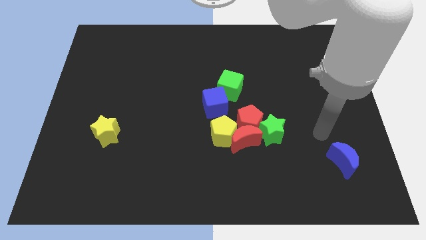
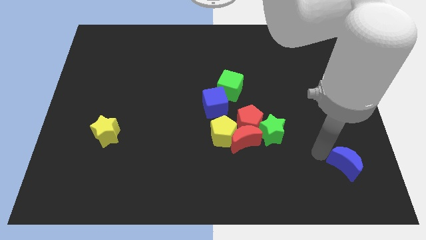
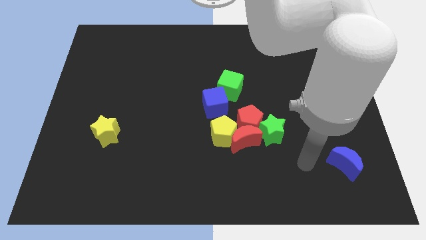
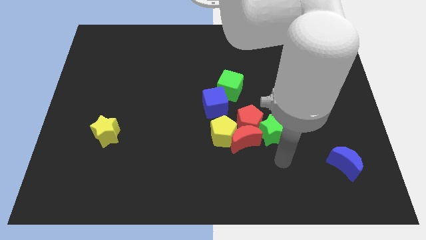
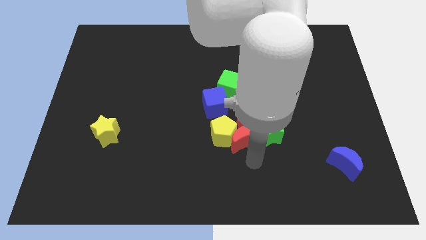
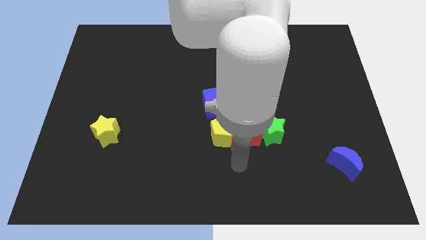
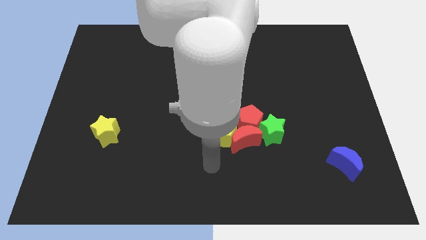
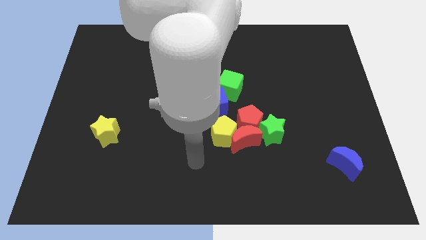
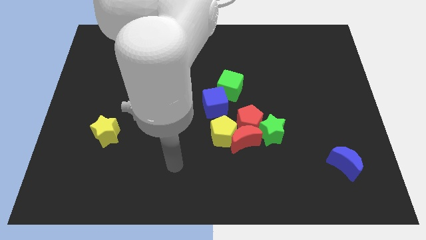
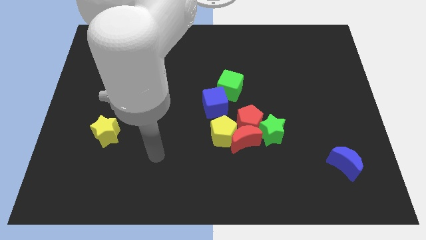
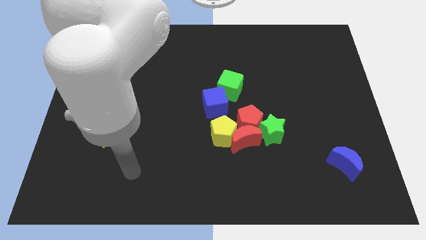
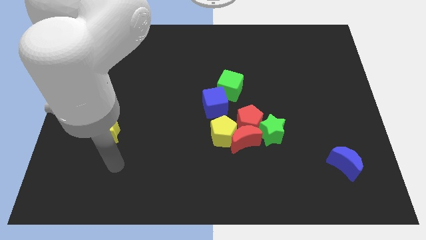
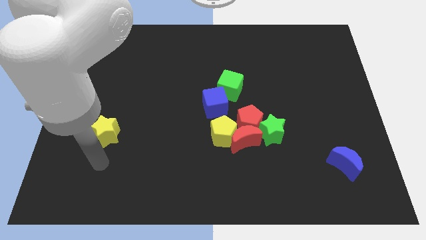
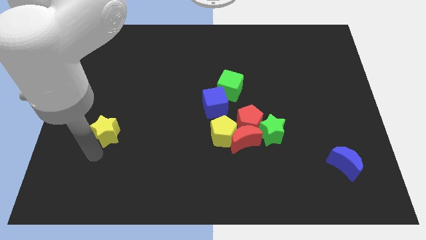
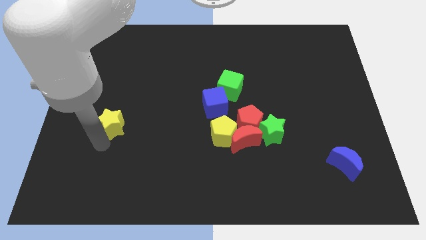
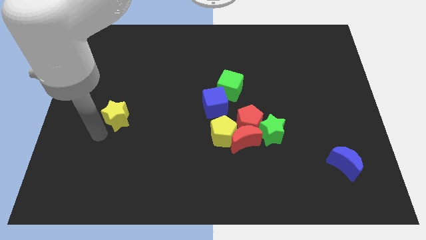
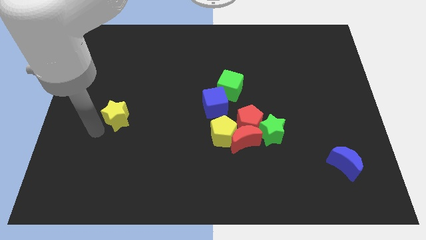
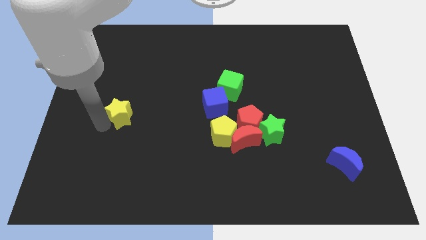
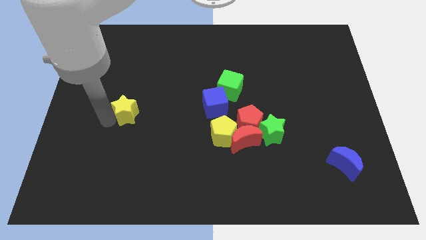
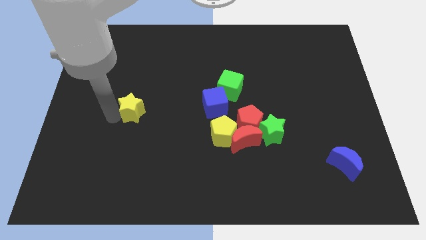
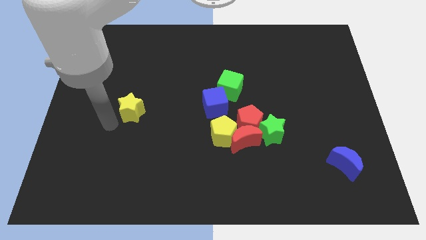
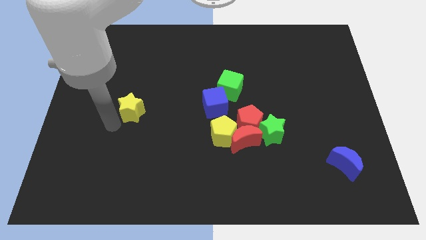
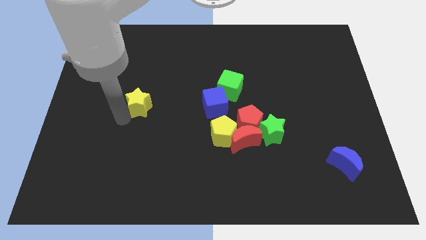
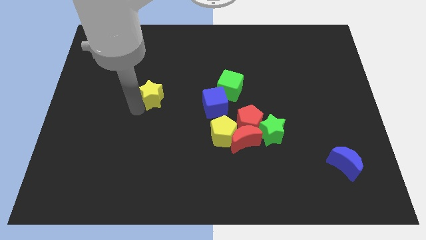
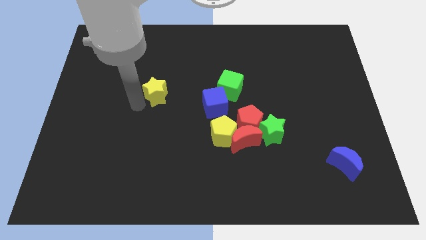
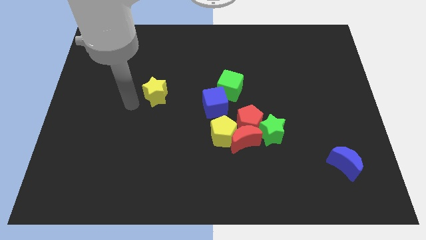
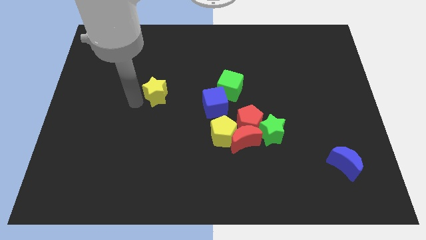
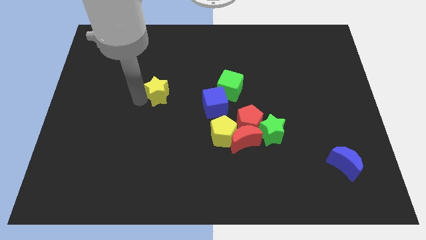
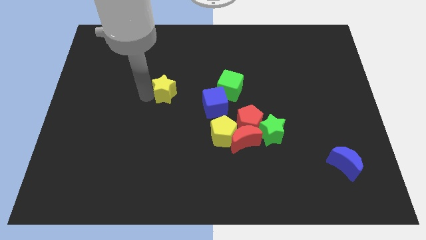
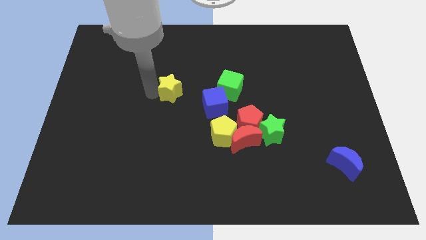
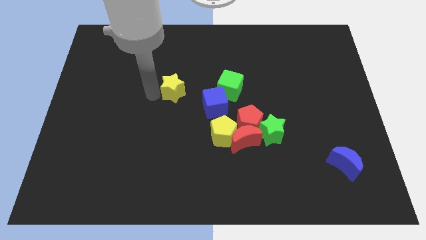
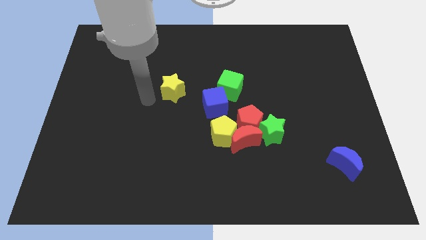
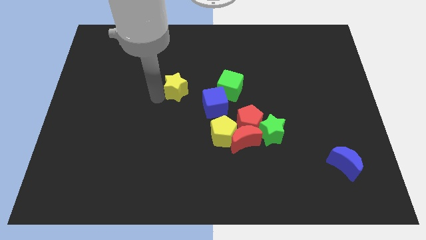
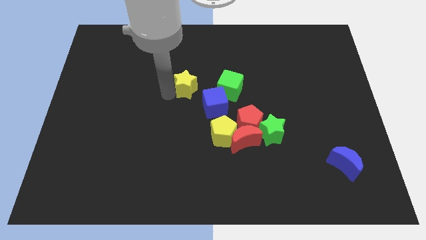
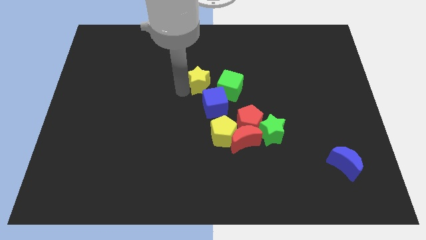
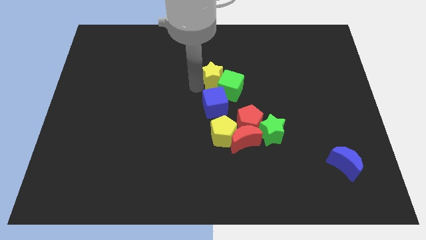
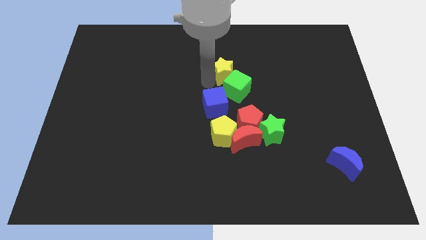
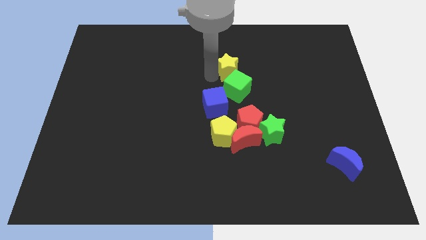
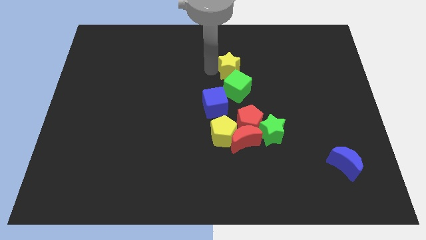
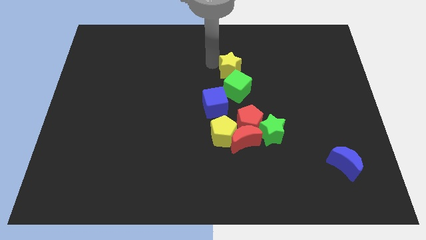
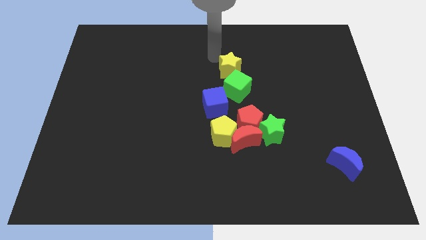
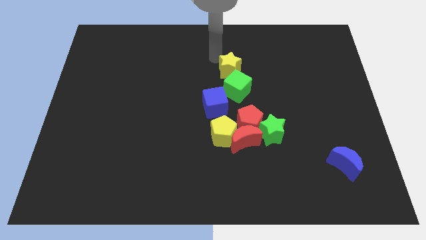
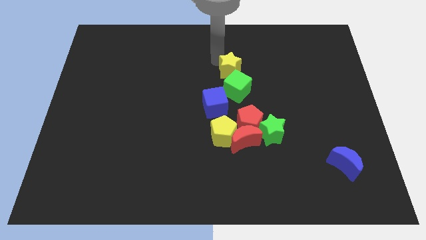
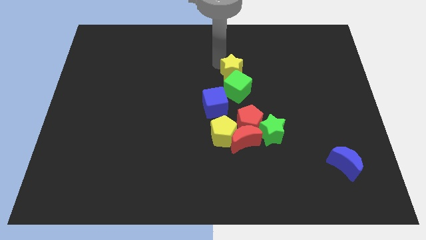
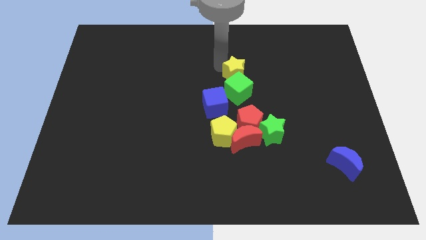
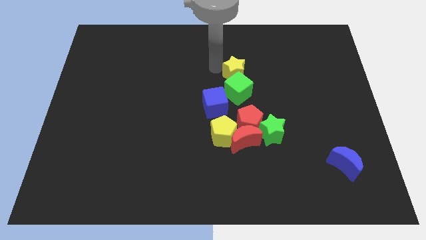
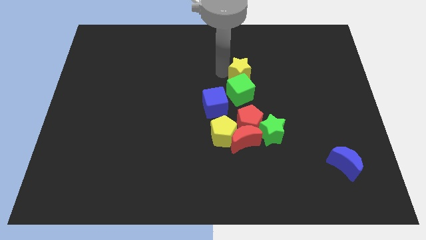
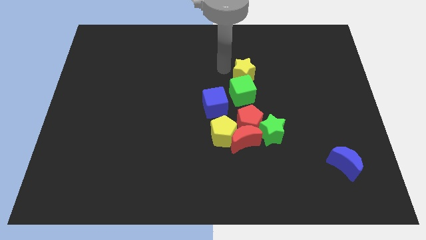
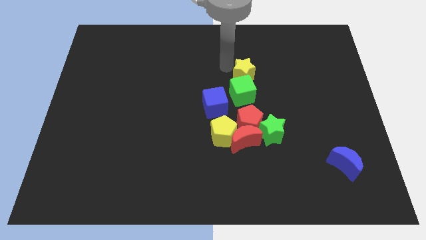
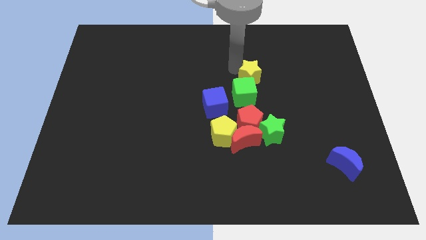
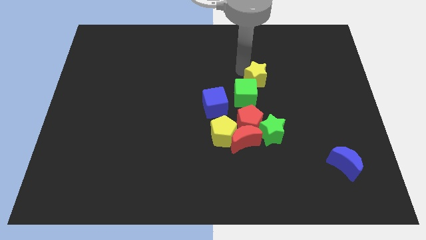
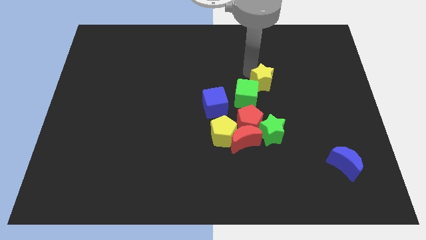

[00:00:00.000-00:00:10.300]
put the yellow star right of the green cube

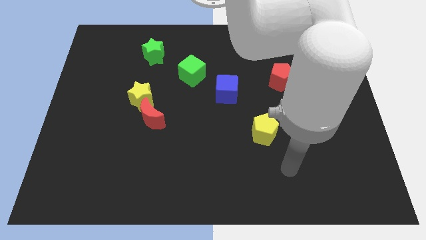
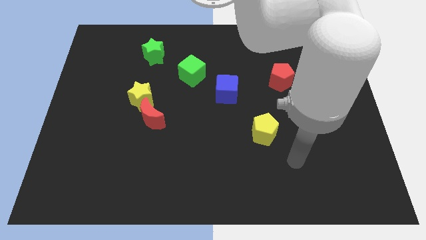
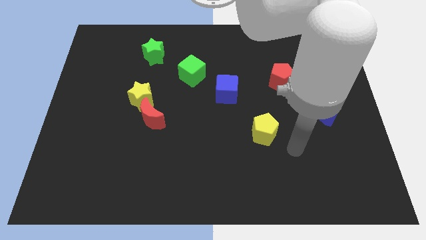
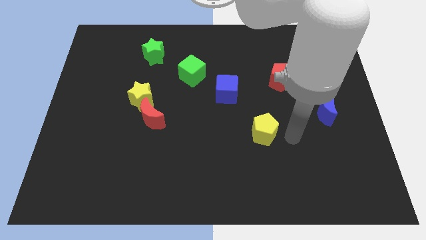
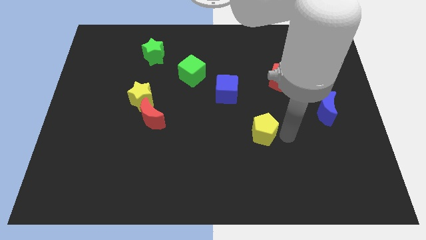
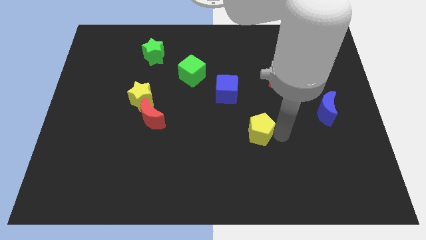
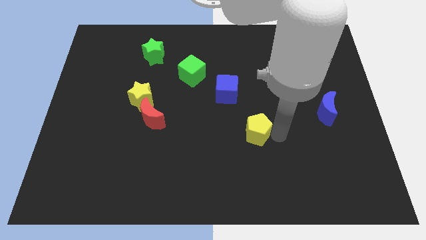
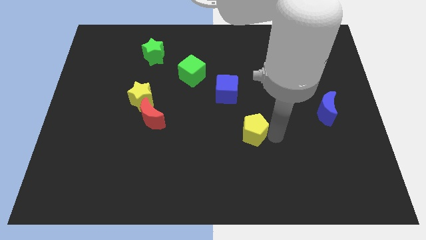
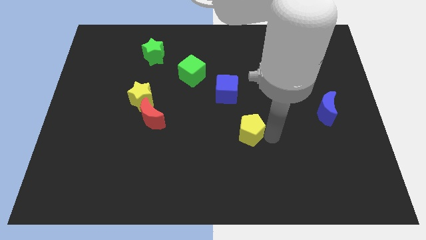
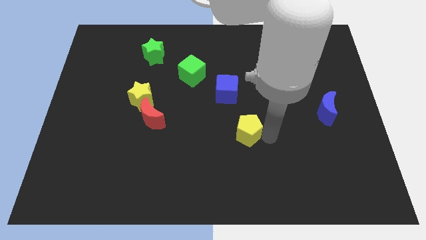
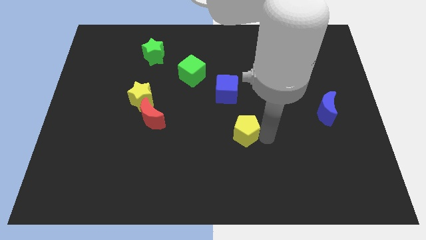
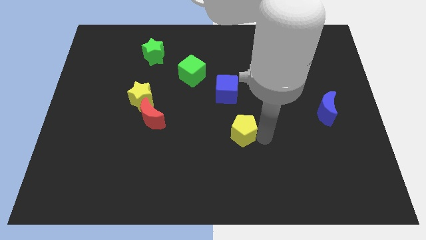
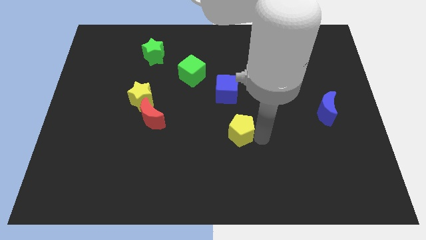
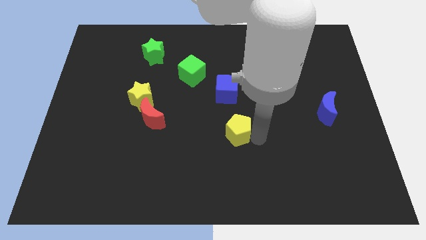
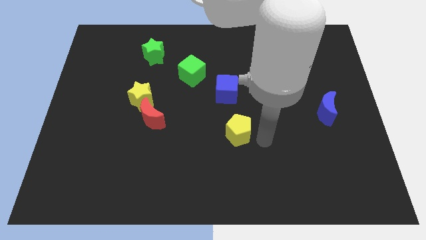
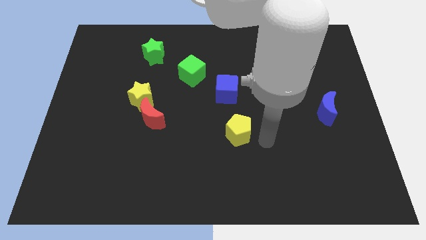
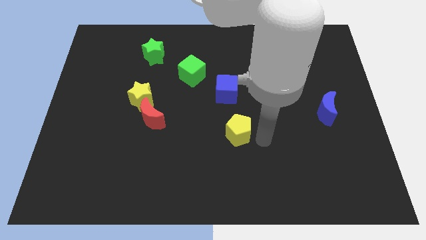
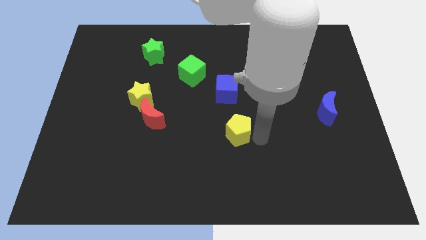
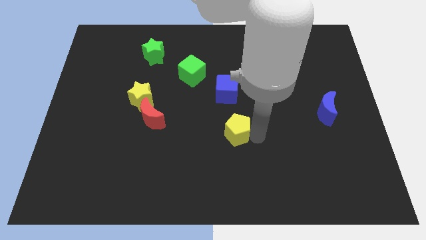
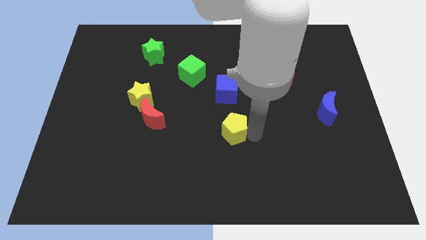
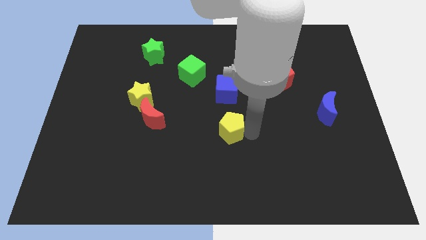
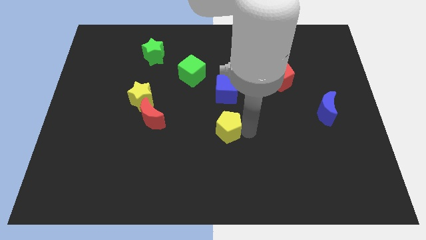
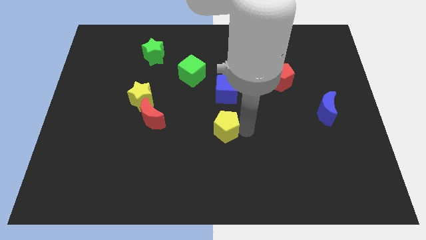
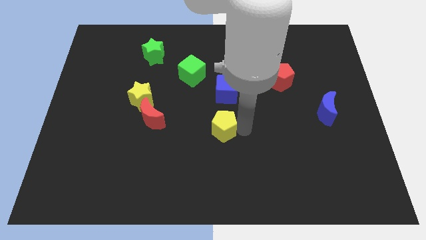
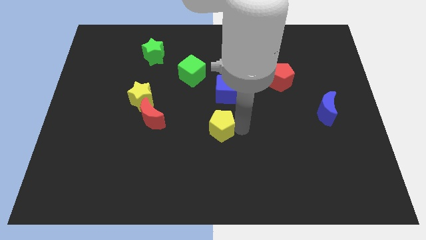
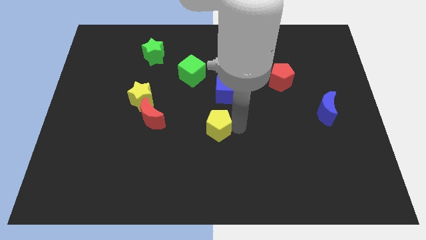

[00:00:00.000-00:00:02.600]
push the yellow pentagon right of the red moon

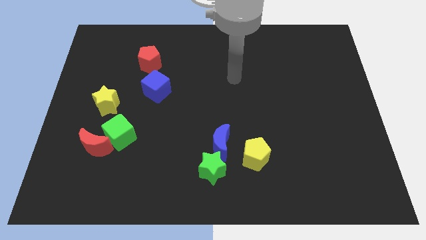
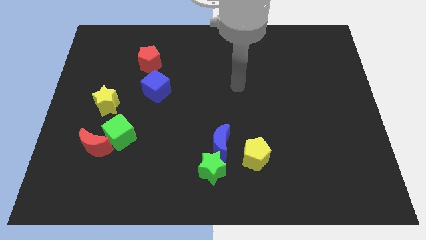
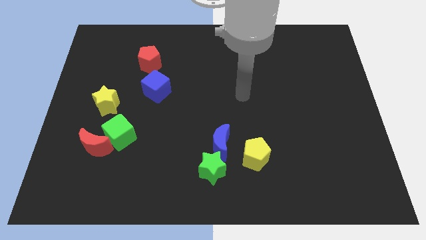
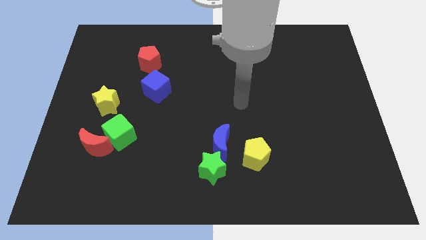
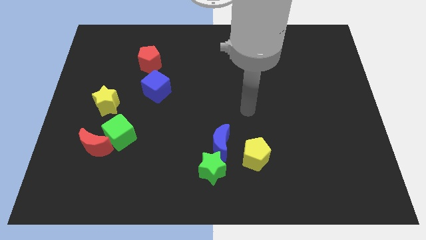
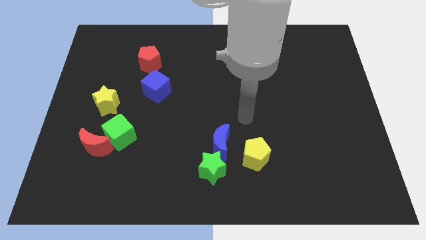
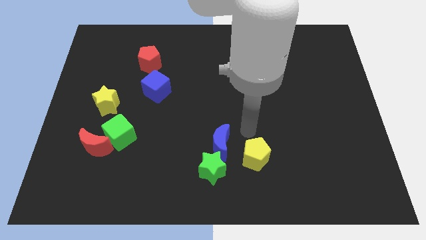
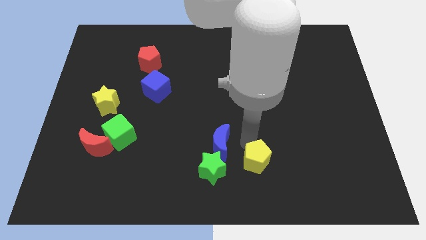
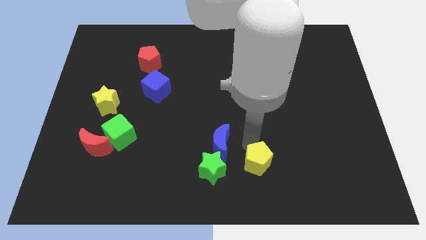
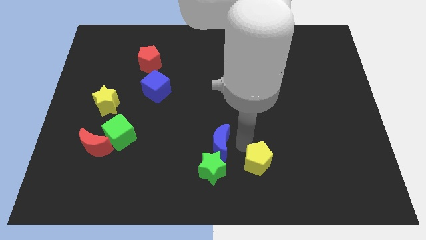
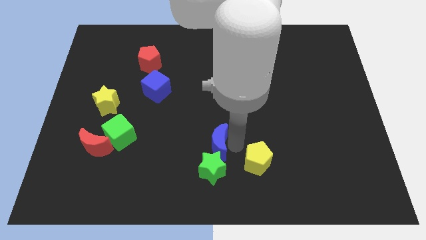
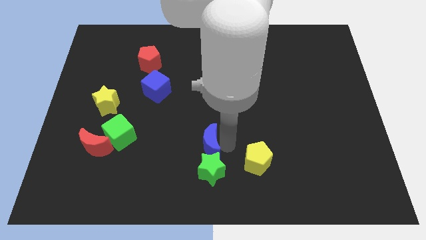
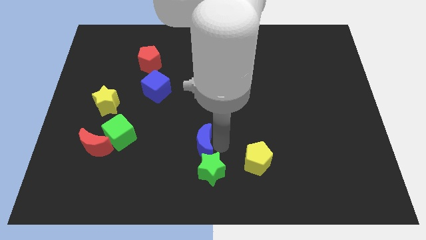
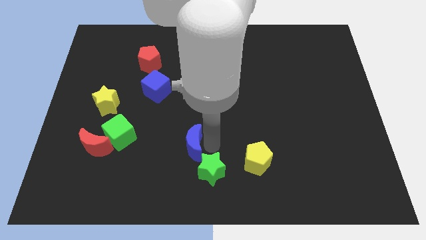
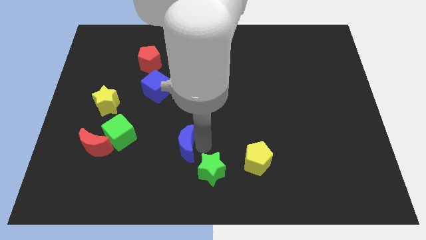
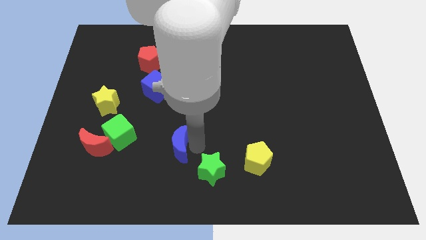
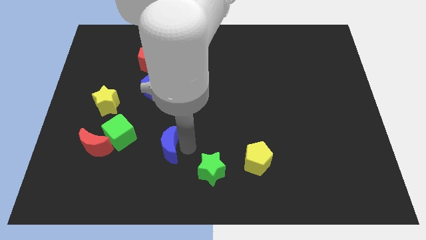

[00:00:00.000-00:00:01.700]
slide the blue moon to the right side of the red moon
